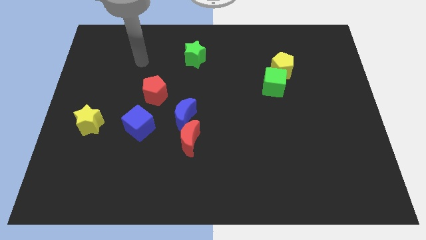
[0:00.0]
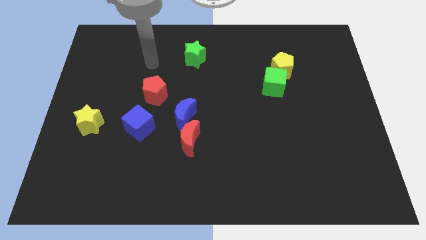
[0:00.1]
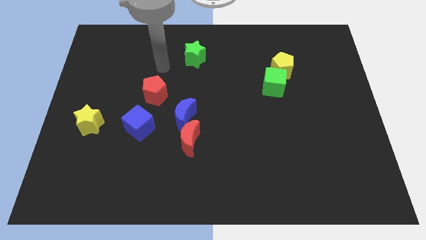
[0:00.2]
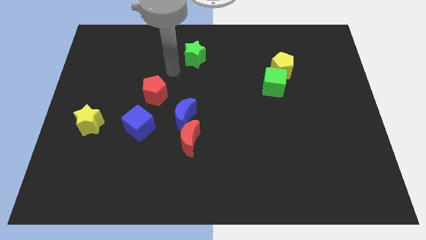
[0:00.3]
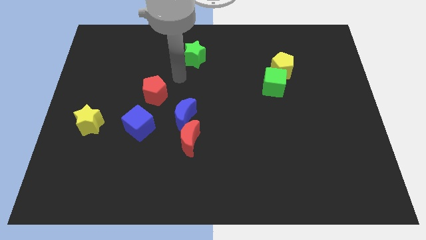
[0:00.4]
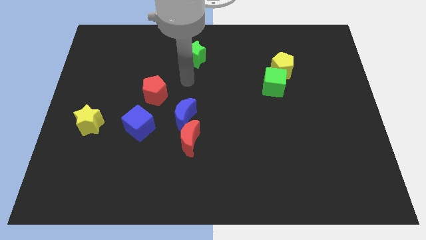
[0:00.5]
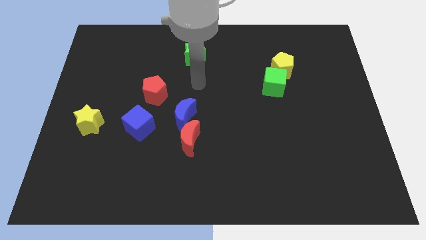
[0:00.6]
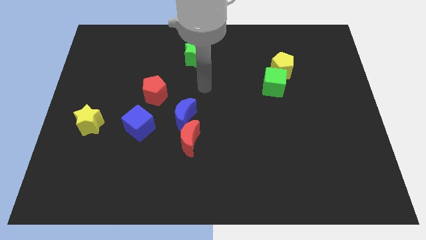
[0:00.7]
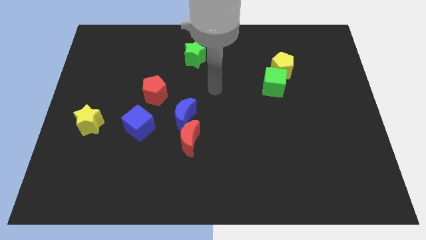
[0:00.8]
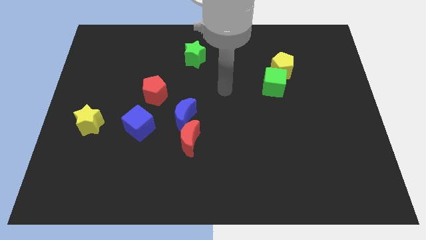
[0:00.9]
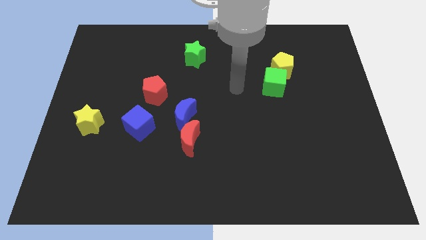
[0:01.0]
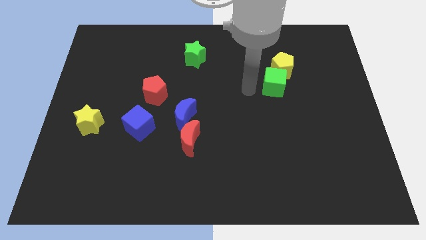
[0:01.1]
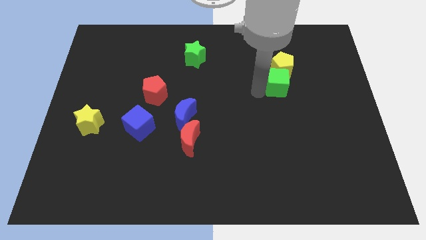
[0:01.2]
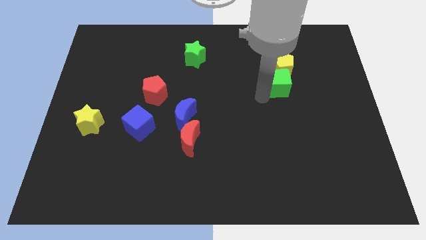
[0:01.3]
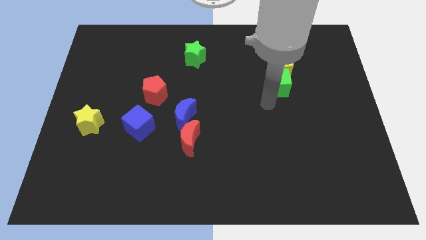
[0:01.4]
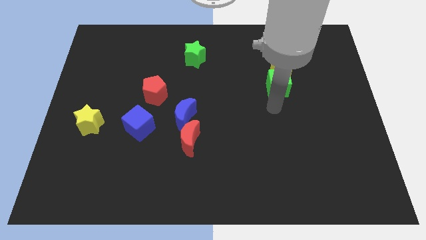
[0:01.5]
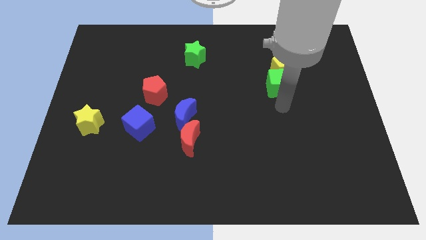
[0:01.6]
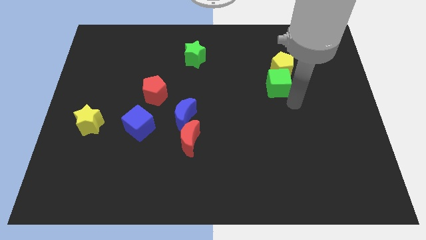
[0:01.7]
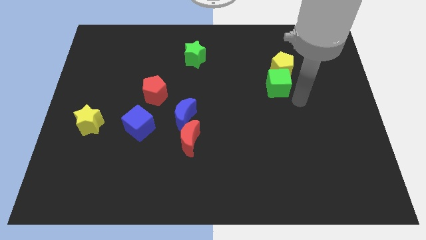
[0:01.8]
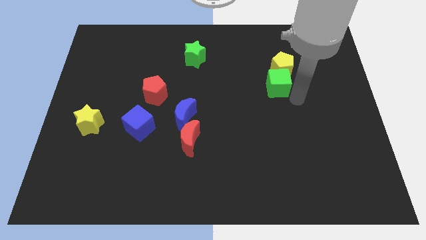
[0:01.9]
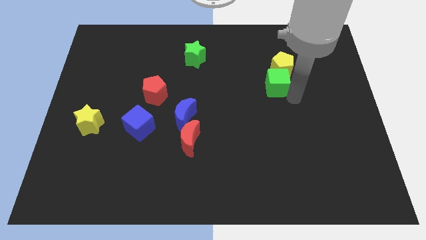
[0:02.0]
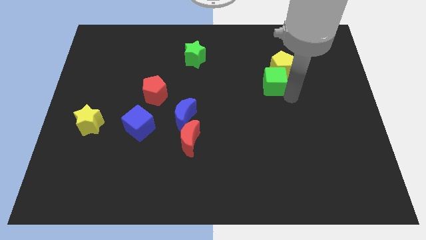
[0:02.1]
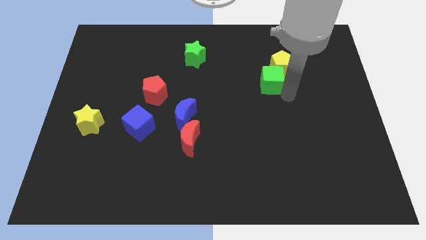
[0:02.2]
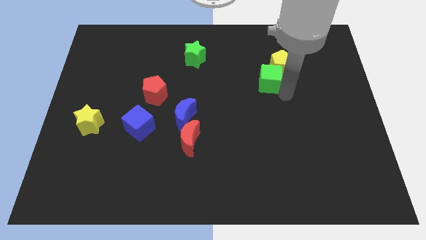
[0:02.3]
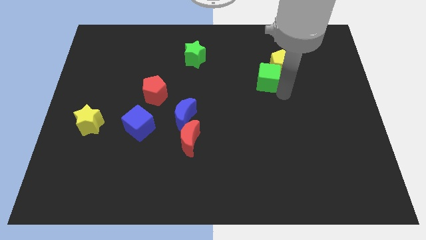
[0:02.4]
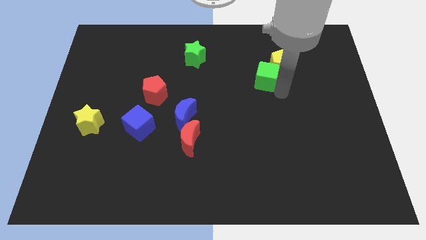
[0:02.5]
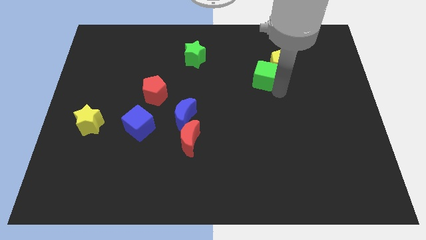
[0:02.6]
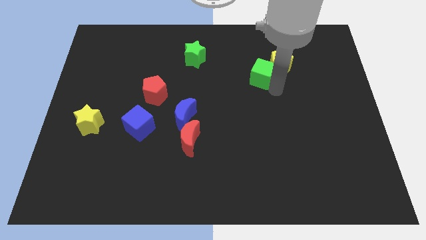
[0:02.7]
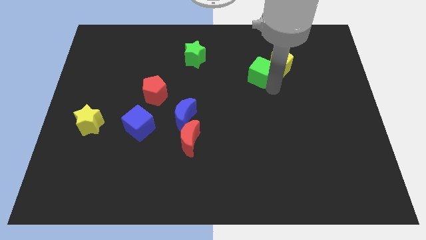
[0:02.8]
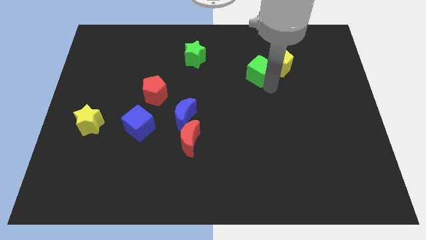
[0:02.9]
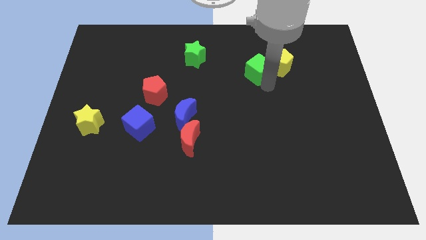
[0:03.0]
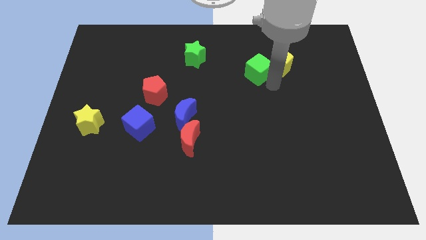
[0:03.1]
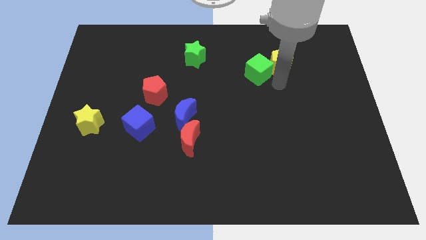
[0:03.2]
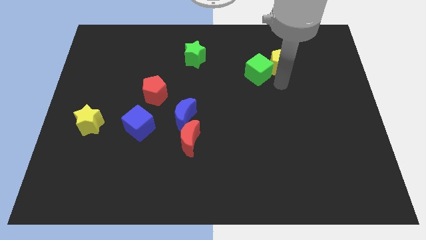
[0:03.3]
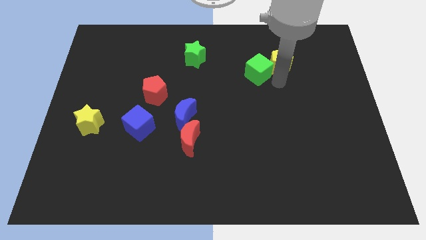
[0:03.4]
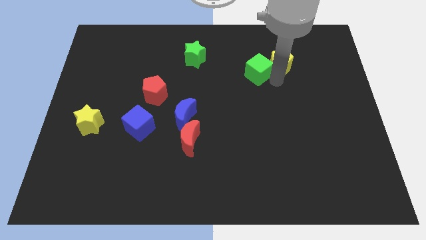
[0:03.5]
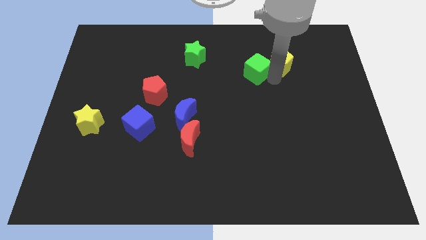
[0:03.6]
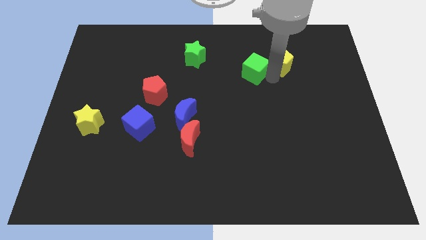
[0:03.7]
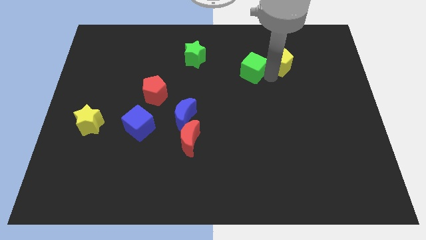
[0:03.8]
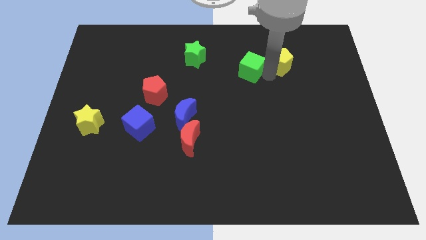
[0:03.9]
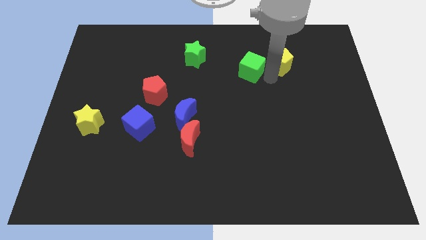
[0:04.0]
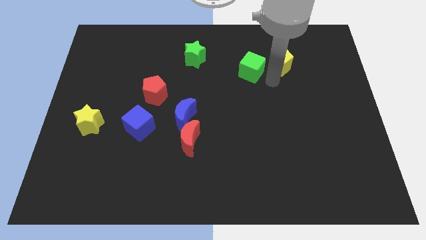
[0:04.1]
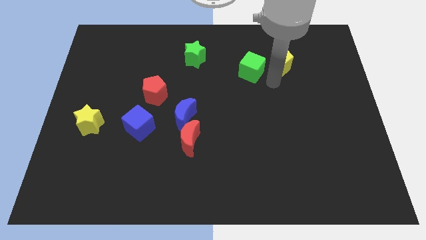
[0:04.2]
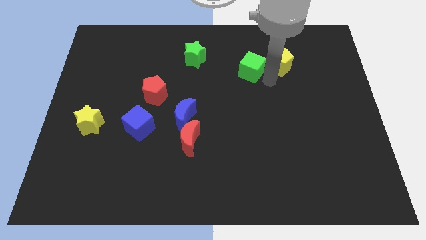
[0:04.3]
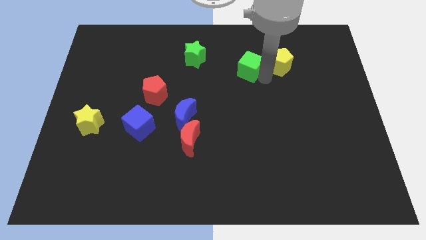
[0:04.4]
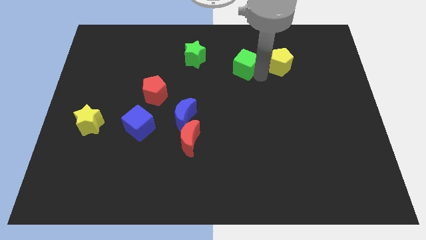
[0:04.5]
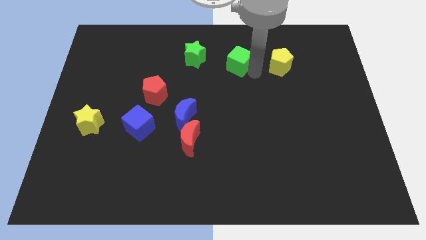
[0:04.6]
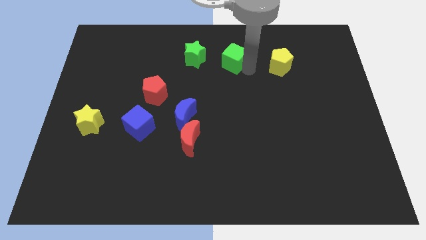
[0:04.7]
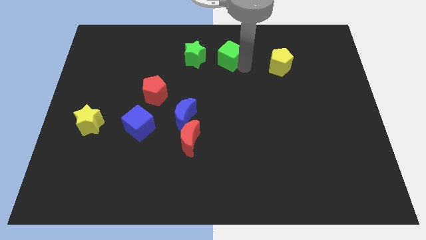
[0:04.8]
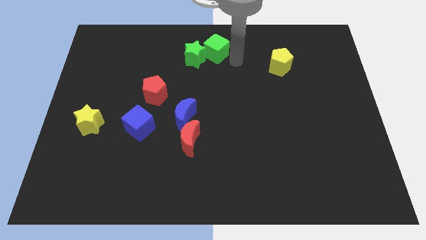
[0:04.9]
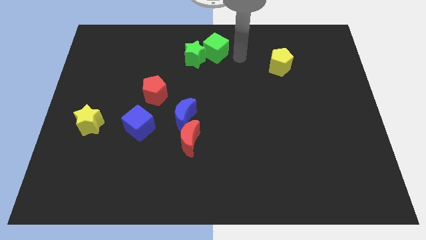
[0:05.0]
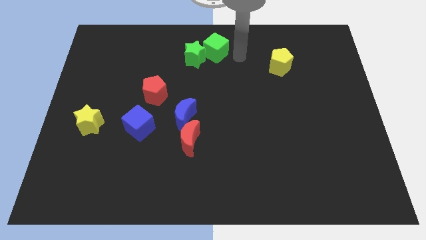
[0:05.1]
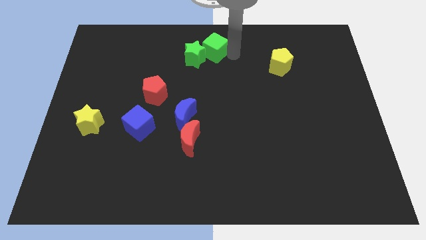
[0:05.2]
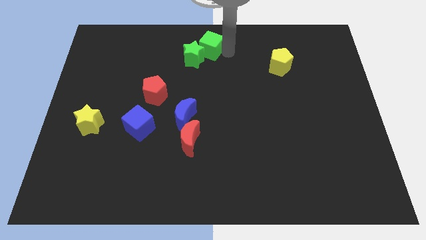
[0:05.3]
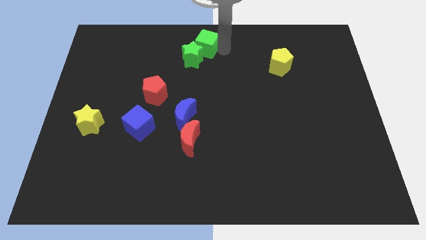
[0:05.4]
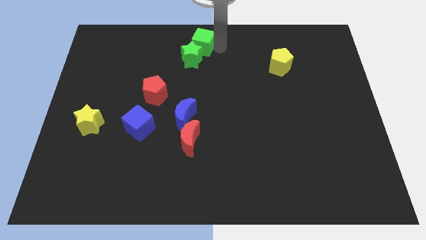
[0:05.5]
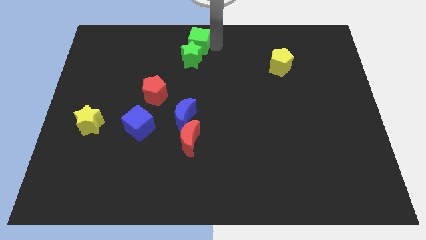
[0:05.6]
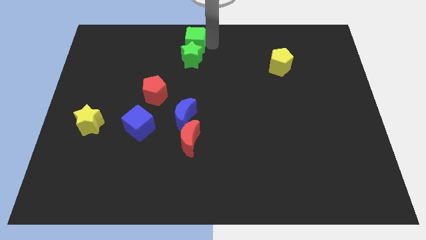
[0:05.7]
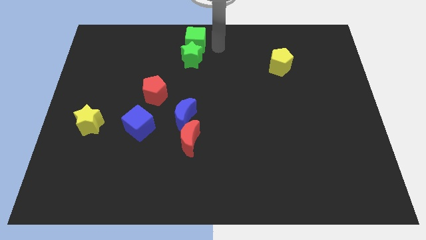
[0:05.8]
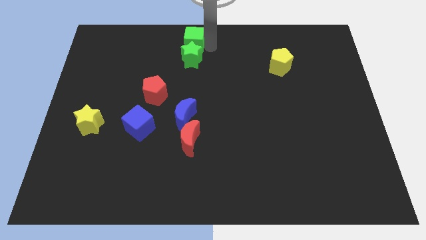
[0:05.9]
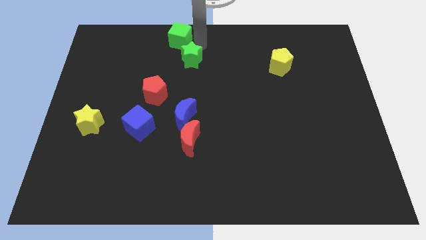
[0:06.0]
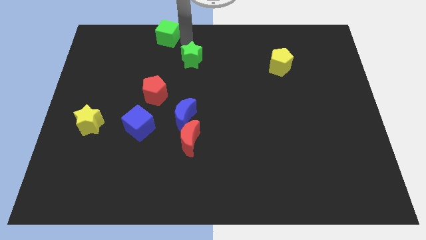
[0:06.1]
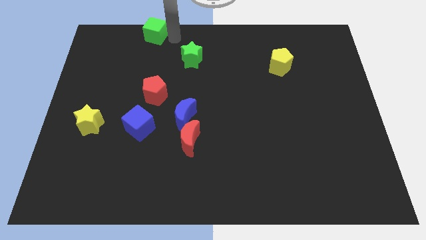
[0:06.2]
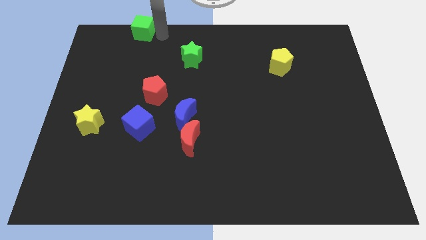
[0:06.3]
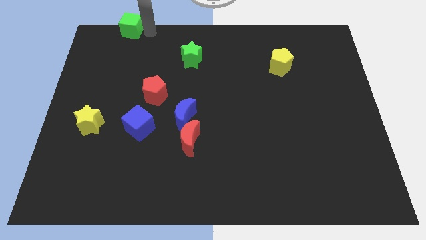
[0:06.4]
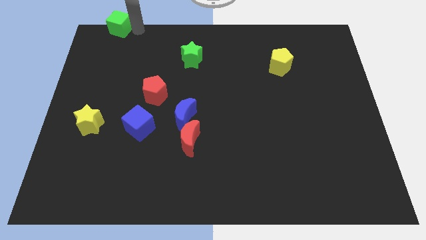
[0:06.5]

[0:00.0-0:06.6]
slide the green cube to the top left corner
